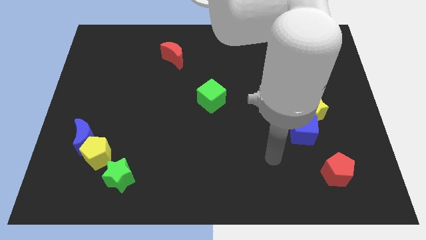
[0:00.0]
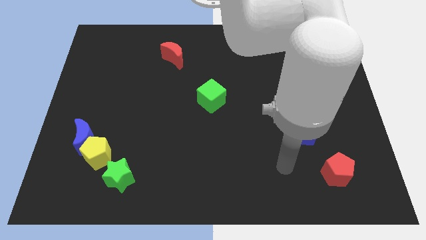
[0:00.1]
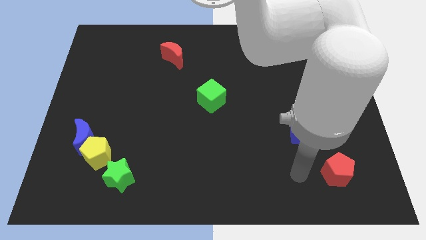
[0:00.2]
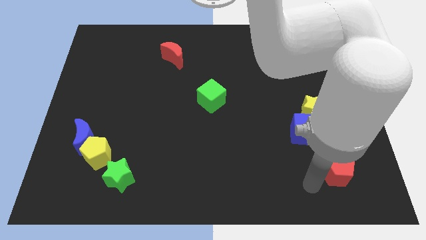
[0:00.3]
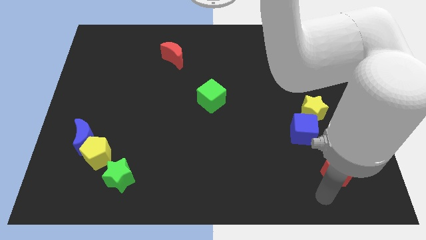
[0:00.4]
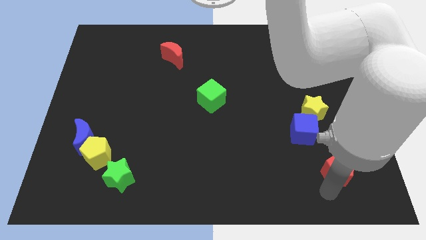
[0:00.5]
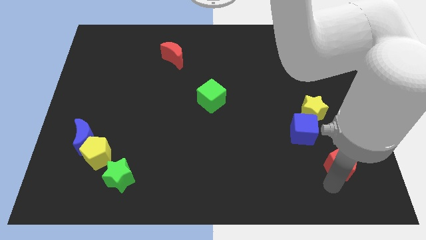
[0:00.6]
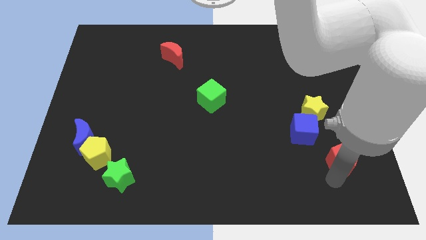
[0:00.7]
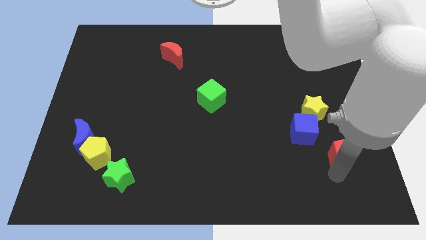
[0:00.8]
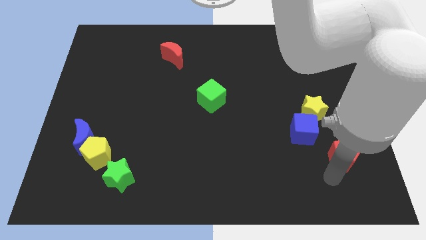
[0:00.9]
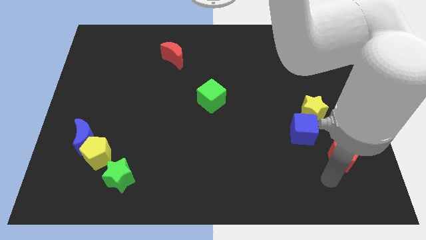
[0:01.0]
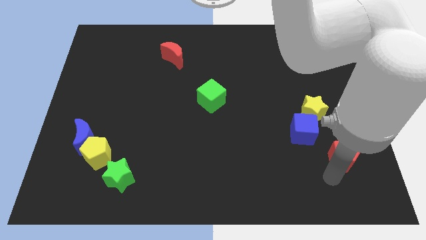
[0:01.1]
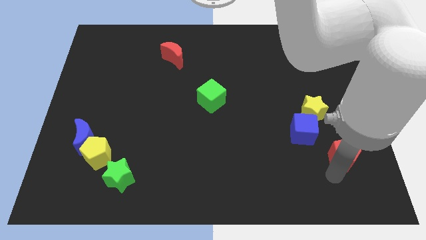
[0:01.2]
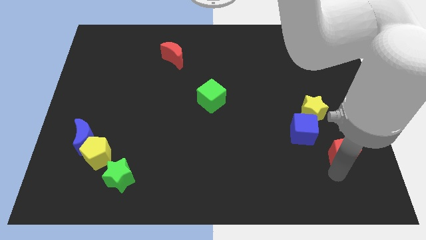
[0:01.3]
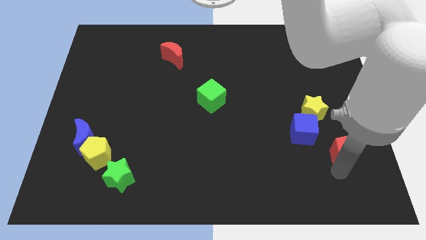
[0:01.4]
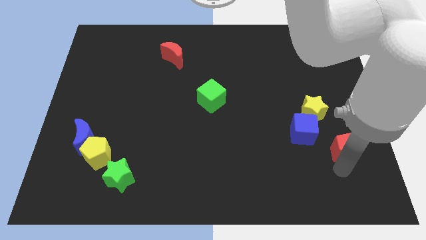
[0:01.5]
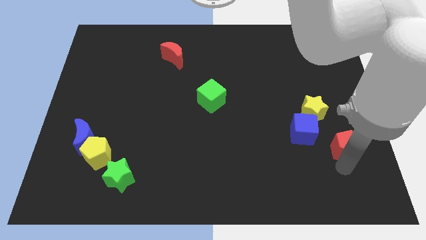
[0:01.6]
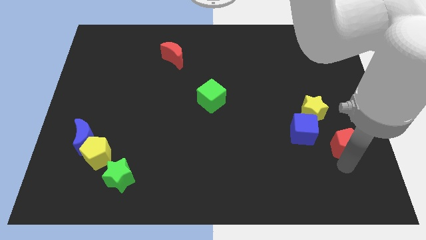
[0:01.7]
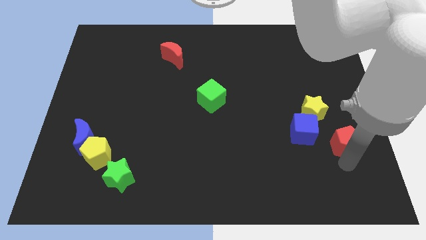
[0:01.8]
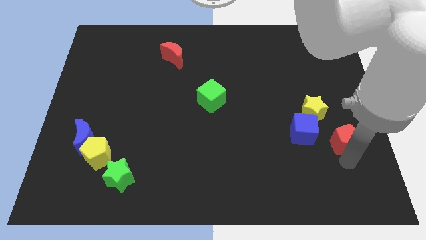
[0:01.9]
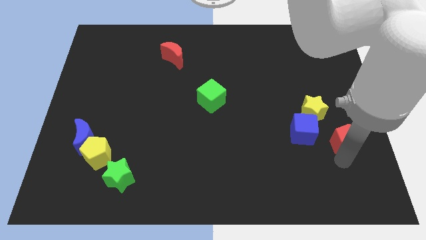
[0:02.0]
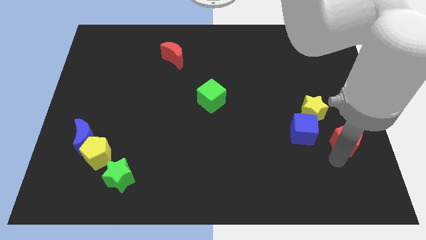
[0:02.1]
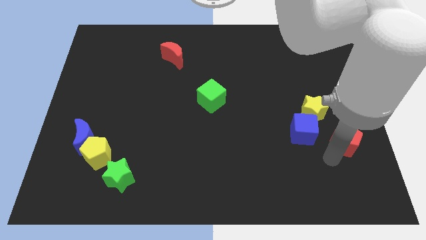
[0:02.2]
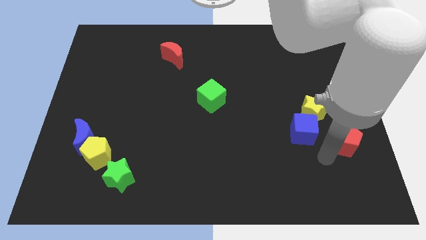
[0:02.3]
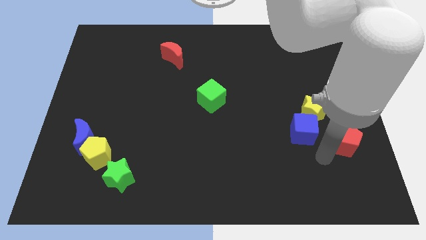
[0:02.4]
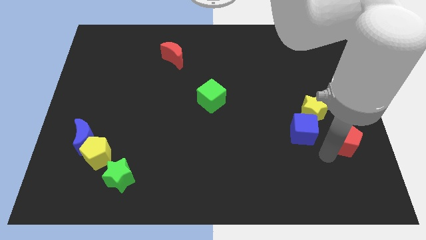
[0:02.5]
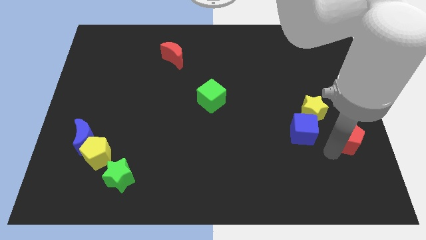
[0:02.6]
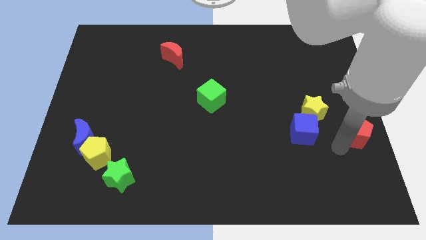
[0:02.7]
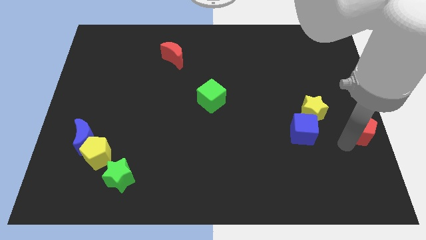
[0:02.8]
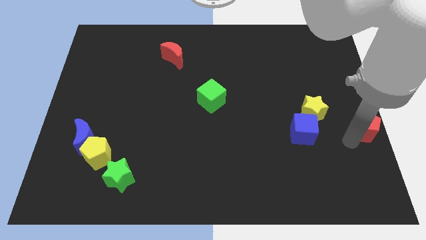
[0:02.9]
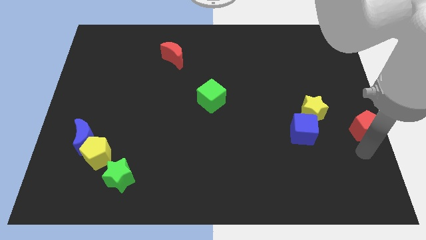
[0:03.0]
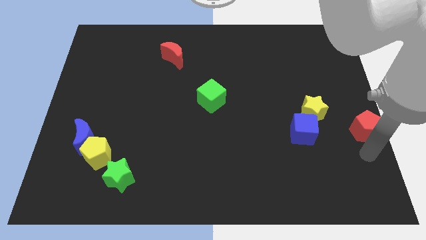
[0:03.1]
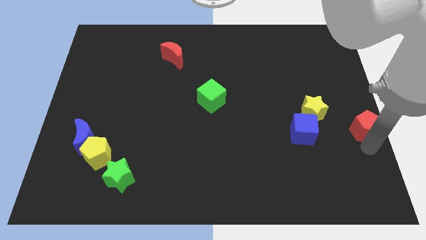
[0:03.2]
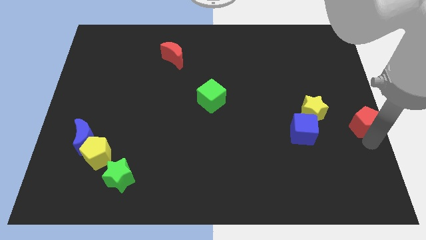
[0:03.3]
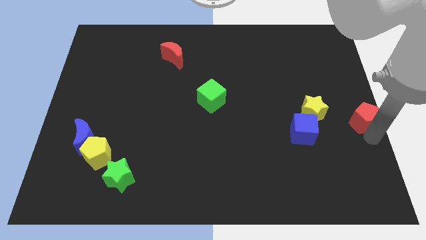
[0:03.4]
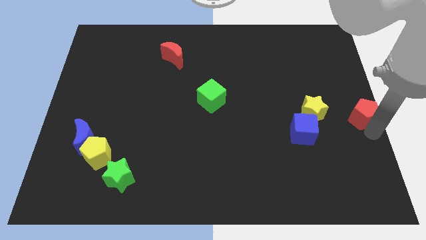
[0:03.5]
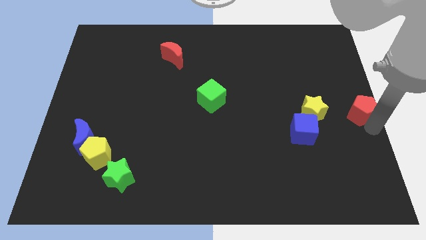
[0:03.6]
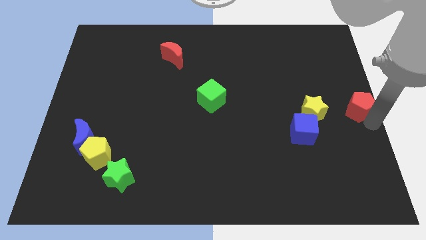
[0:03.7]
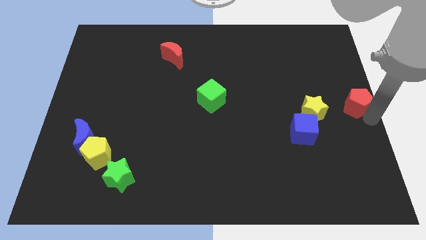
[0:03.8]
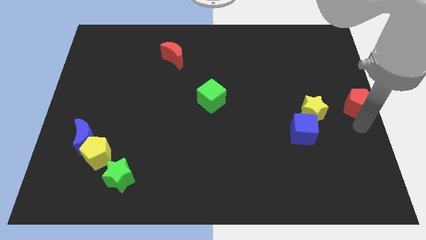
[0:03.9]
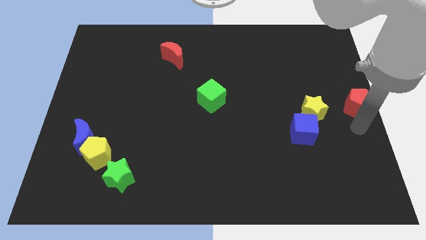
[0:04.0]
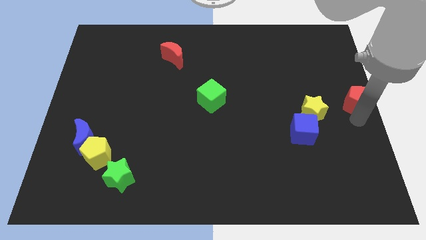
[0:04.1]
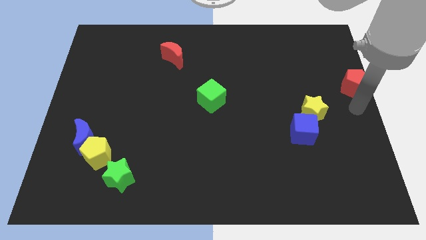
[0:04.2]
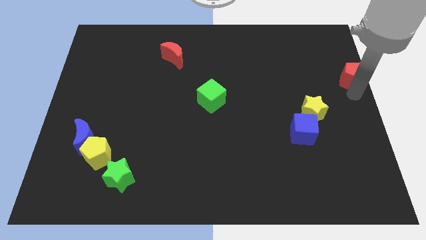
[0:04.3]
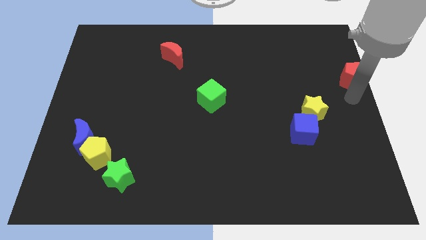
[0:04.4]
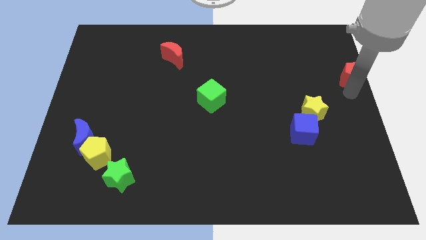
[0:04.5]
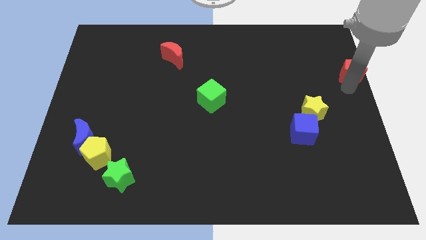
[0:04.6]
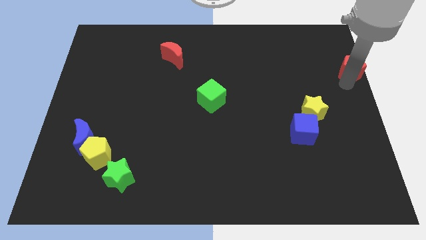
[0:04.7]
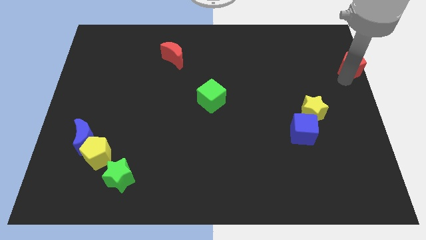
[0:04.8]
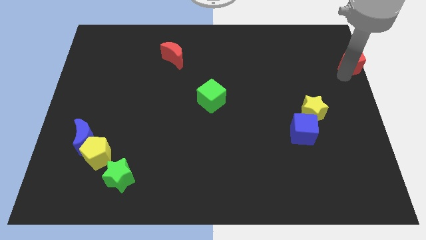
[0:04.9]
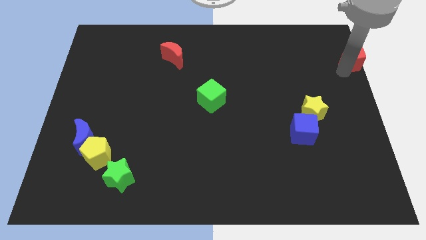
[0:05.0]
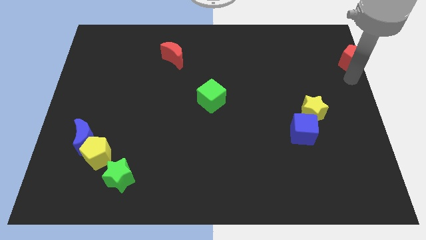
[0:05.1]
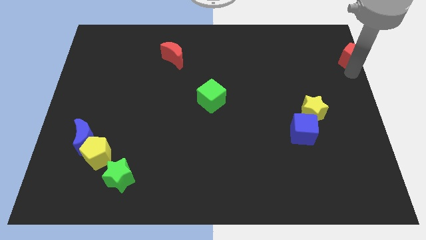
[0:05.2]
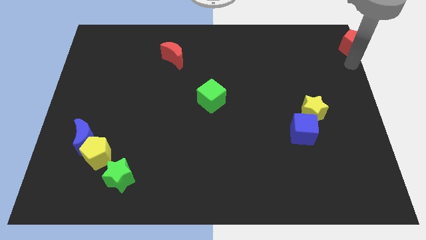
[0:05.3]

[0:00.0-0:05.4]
move the red pentagon to the top right of the board

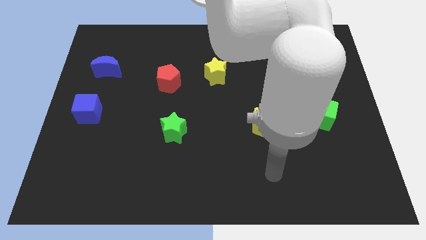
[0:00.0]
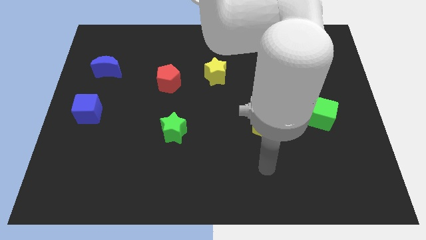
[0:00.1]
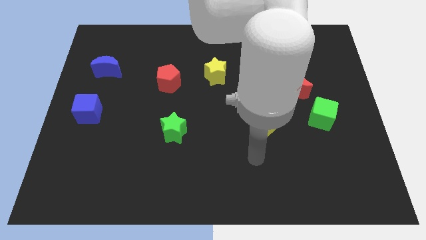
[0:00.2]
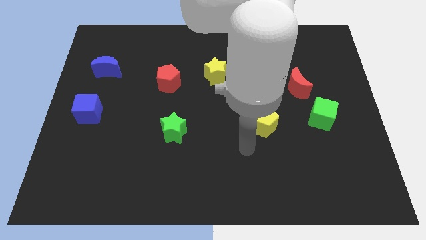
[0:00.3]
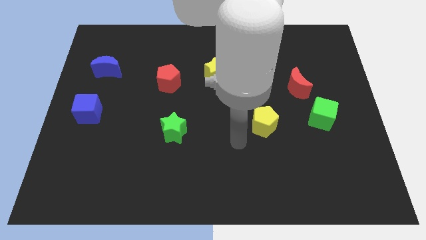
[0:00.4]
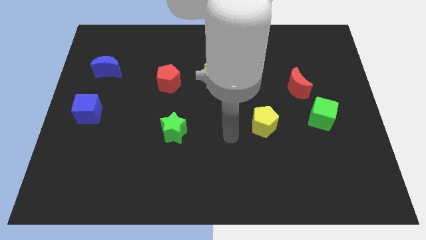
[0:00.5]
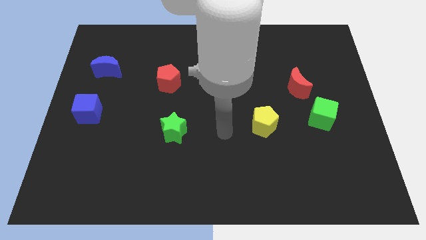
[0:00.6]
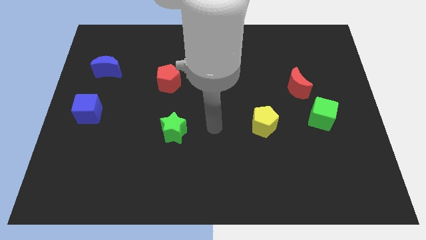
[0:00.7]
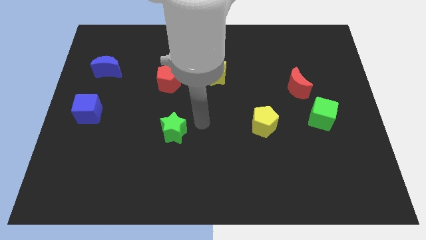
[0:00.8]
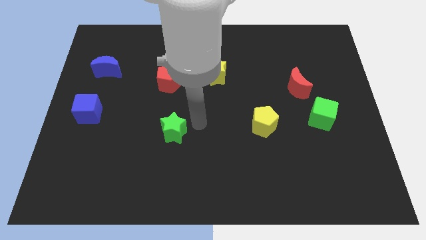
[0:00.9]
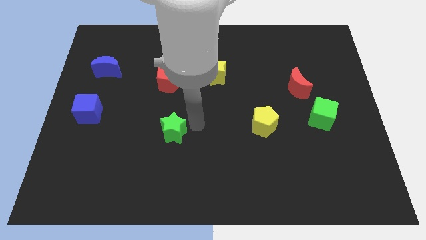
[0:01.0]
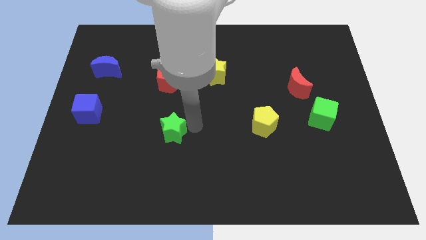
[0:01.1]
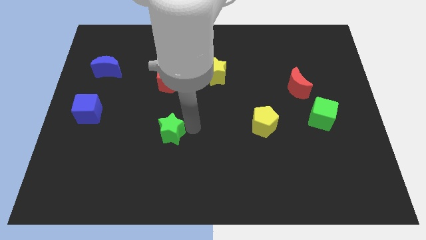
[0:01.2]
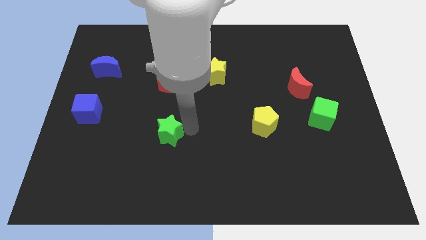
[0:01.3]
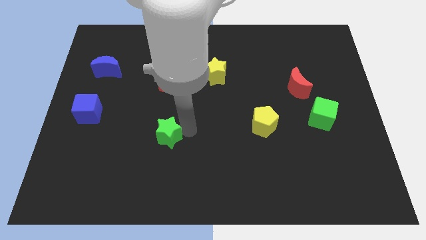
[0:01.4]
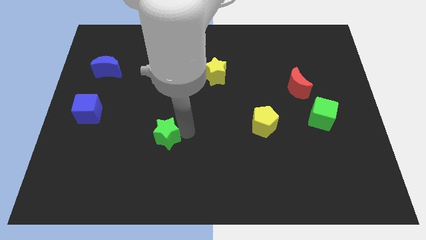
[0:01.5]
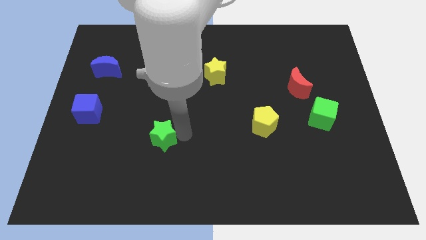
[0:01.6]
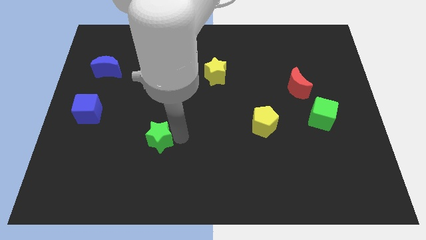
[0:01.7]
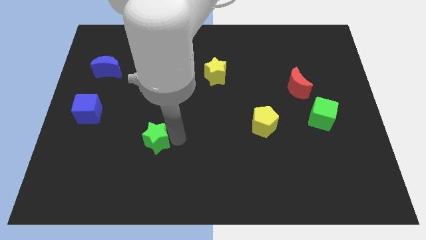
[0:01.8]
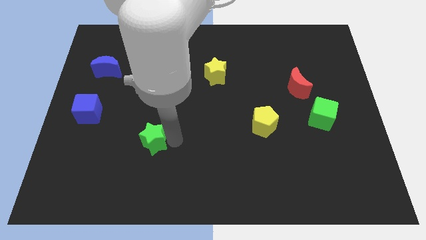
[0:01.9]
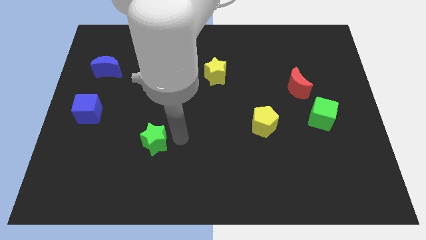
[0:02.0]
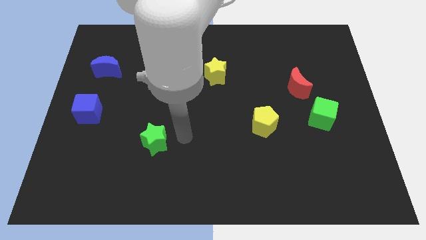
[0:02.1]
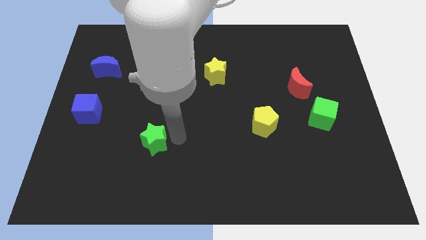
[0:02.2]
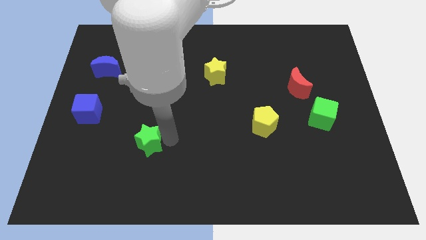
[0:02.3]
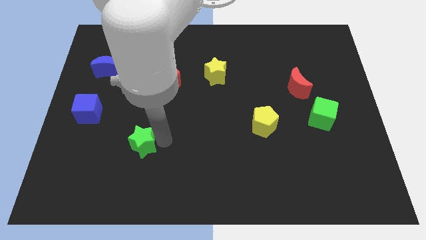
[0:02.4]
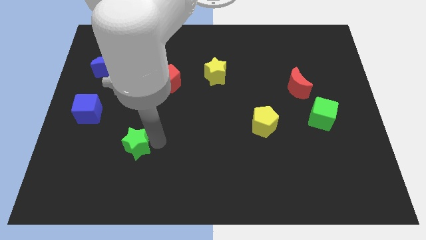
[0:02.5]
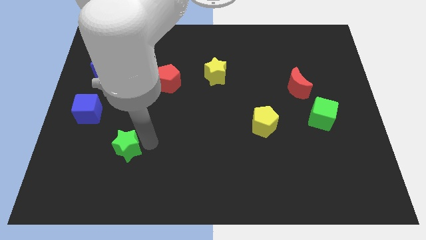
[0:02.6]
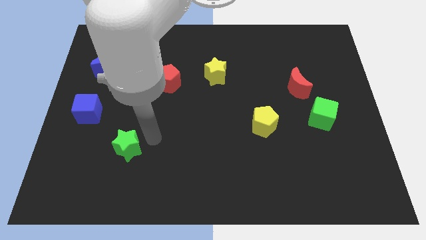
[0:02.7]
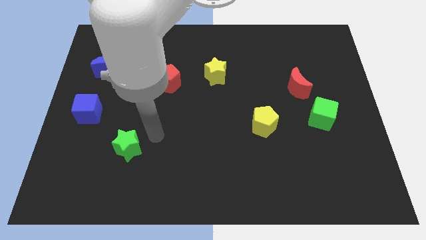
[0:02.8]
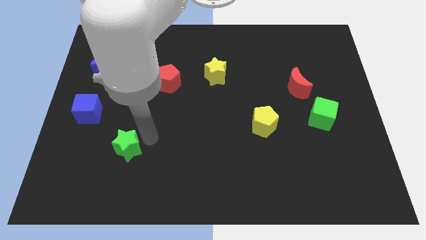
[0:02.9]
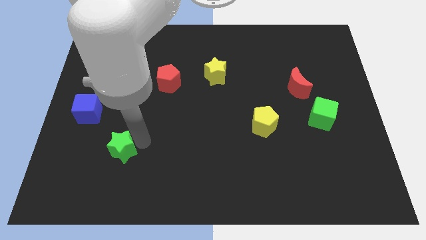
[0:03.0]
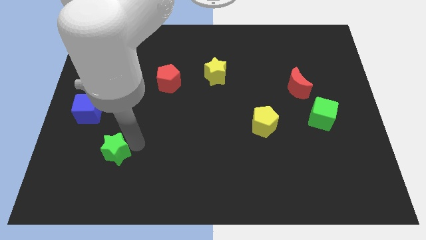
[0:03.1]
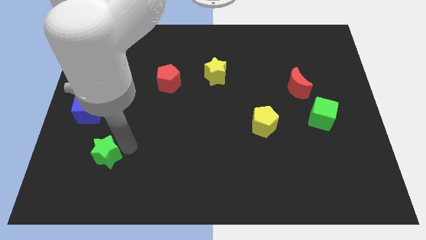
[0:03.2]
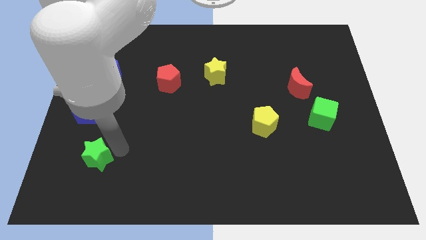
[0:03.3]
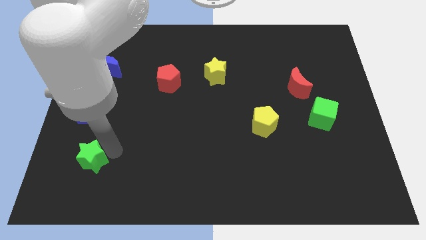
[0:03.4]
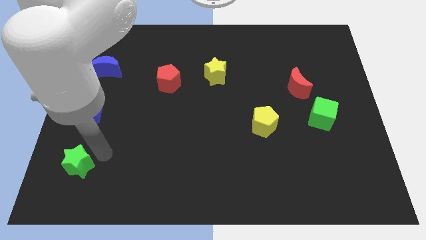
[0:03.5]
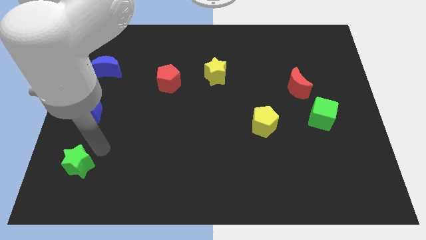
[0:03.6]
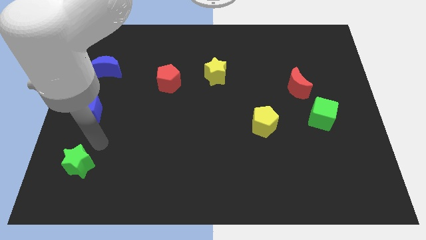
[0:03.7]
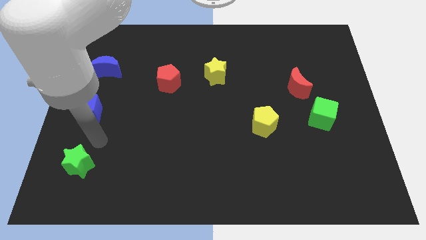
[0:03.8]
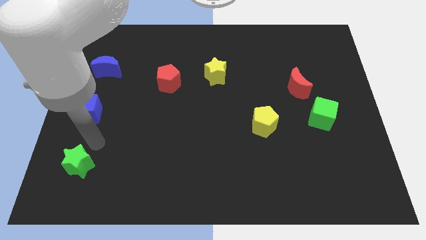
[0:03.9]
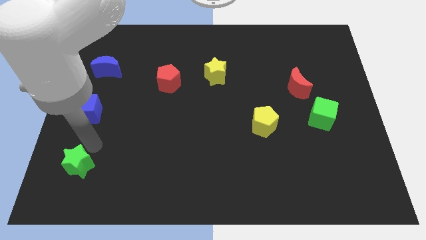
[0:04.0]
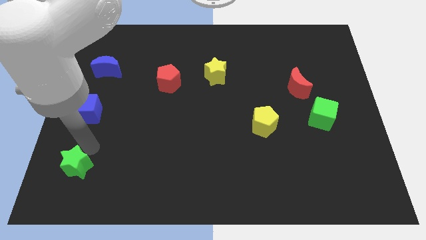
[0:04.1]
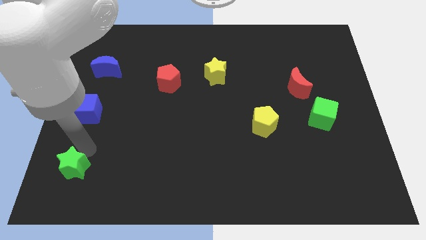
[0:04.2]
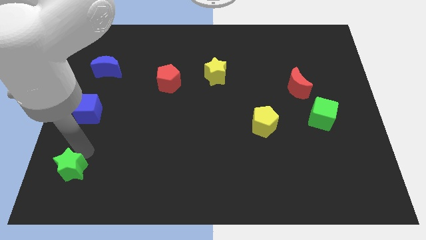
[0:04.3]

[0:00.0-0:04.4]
push the green star to the bottom left
